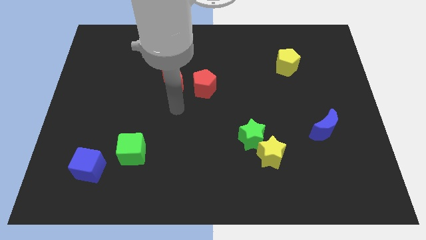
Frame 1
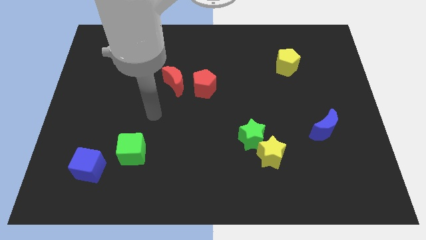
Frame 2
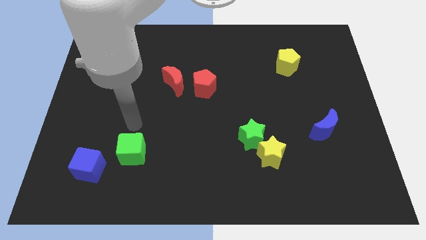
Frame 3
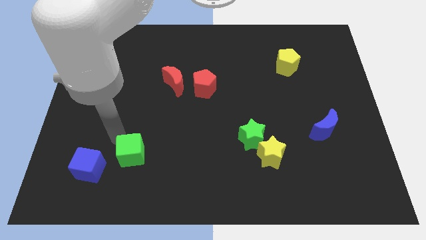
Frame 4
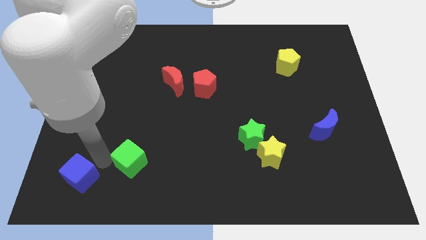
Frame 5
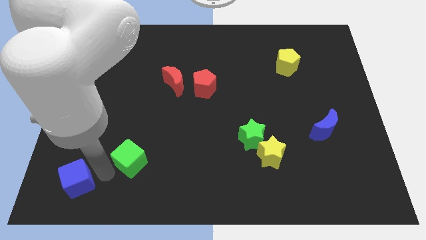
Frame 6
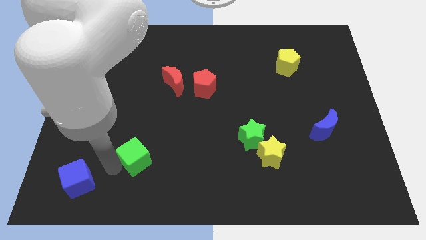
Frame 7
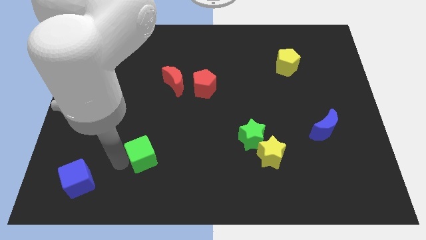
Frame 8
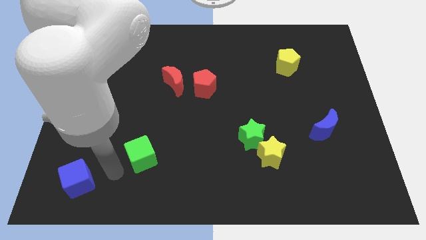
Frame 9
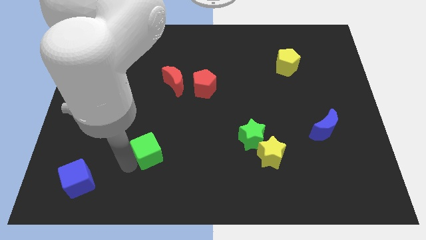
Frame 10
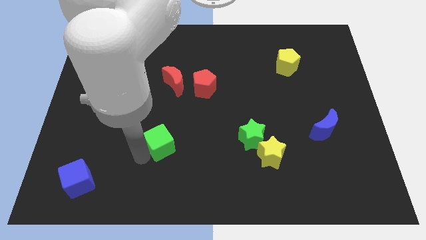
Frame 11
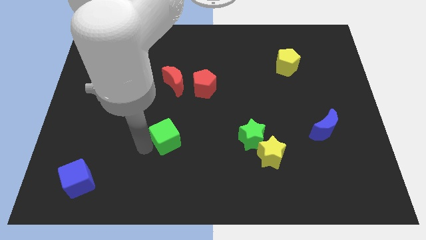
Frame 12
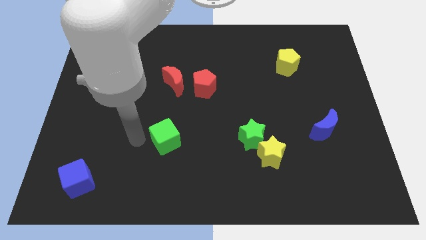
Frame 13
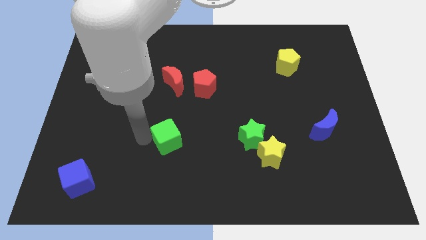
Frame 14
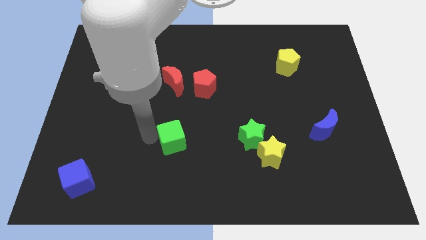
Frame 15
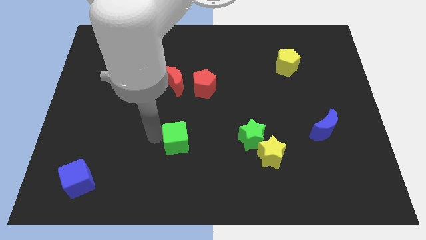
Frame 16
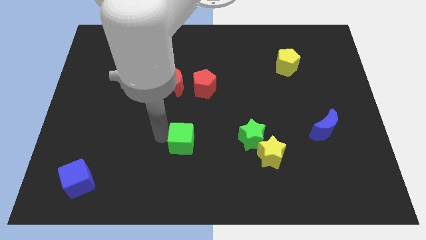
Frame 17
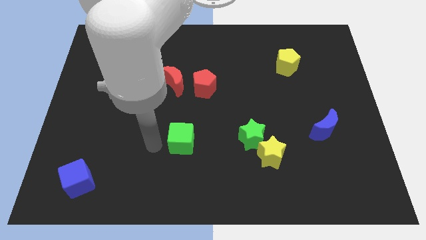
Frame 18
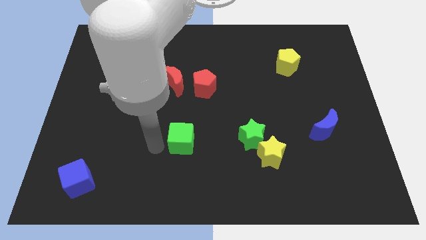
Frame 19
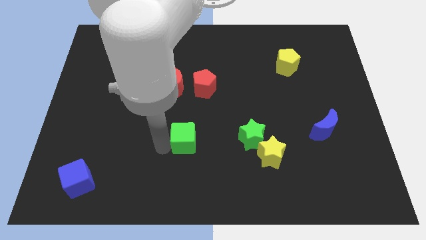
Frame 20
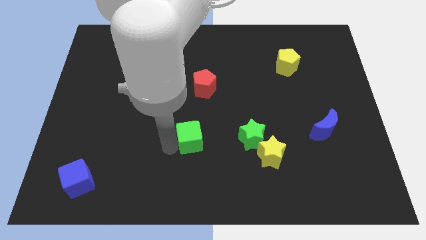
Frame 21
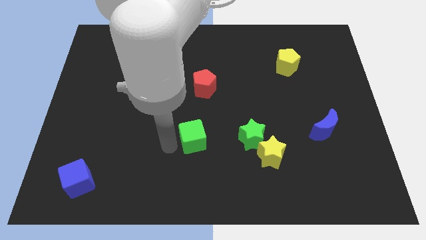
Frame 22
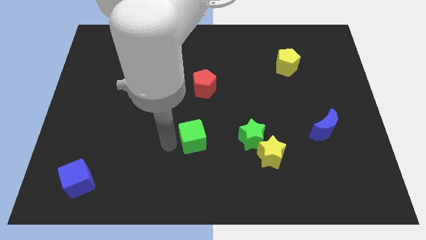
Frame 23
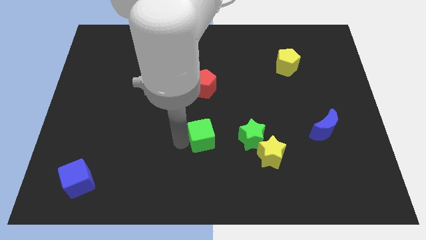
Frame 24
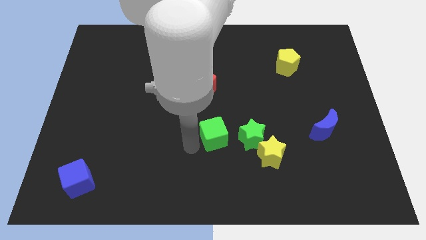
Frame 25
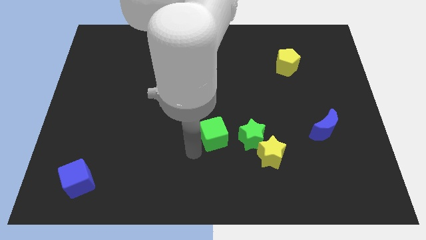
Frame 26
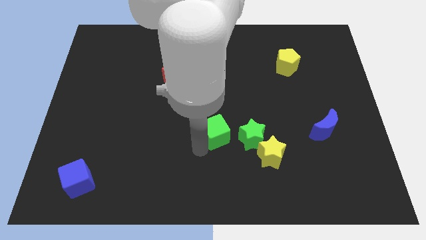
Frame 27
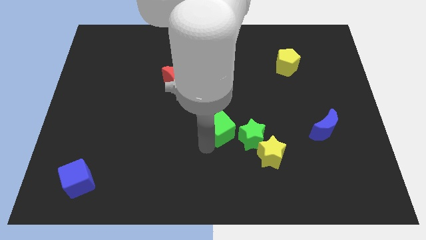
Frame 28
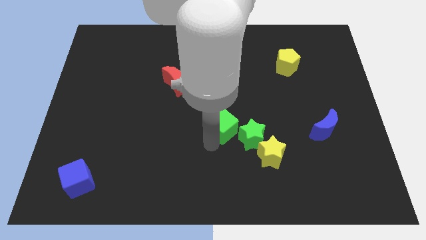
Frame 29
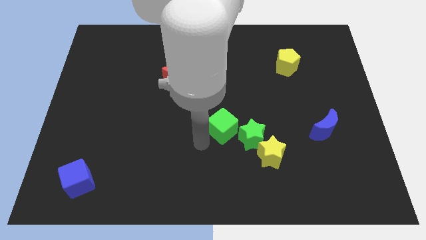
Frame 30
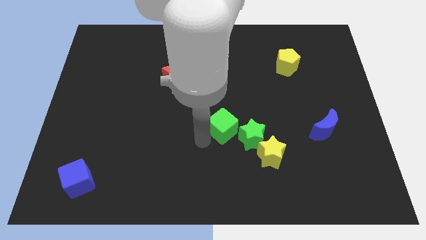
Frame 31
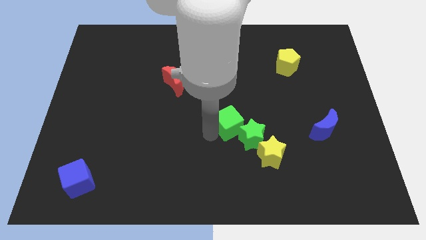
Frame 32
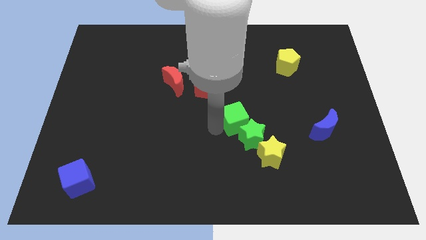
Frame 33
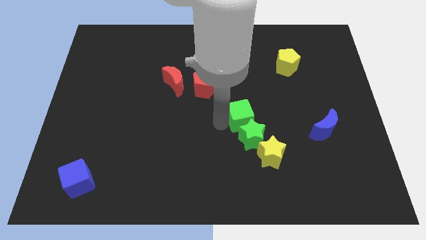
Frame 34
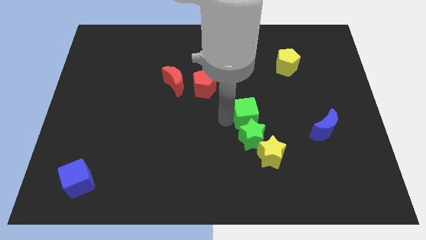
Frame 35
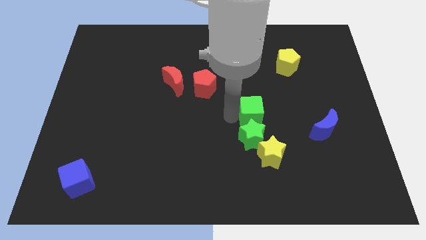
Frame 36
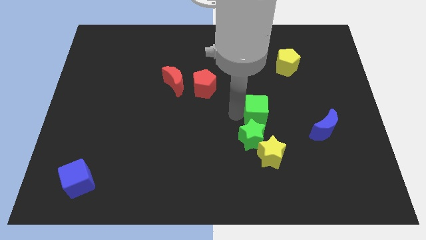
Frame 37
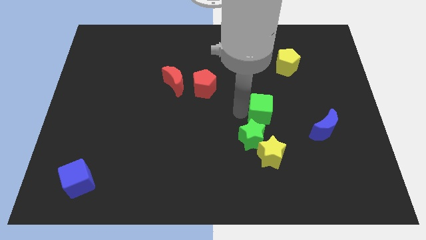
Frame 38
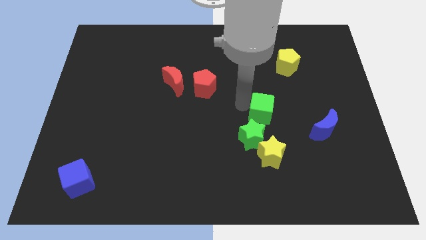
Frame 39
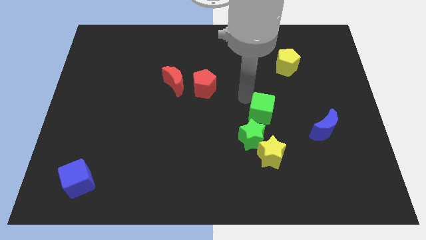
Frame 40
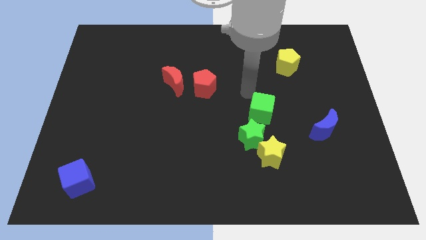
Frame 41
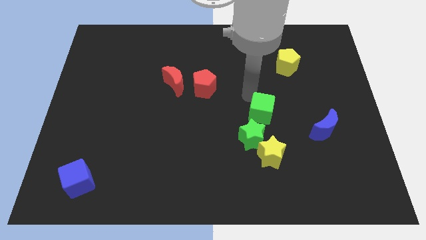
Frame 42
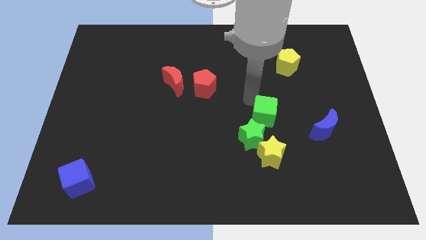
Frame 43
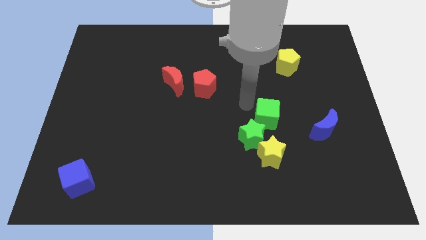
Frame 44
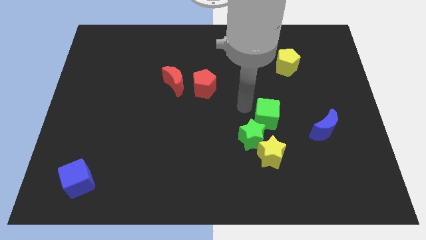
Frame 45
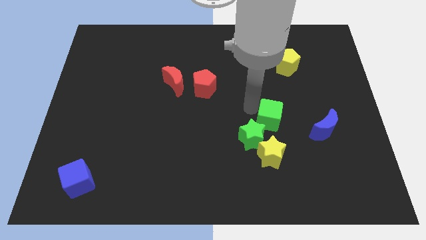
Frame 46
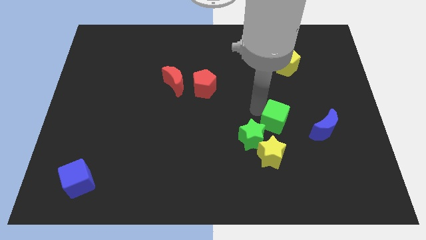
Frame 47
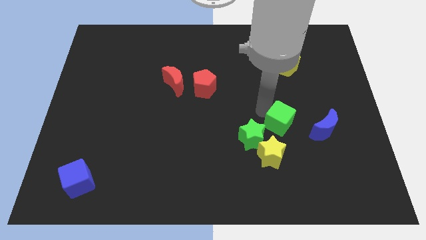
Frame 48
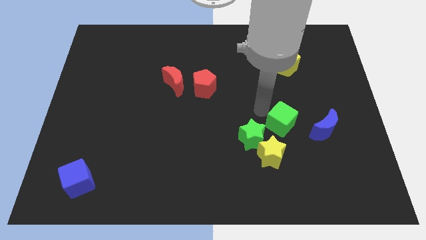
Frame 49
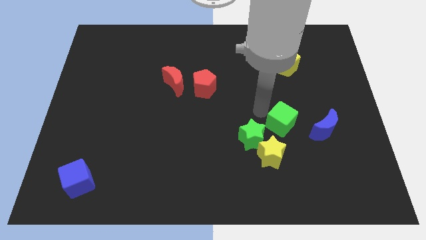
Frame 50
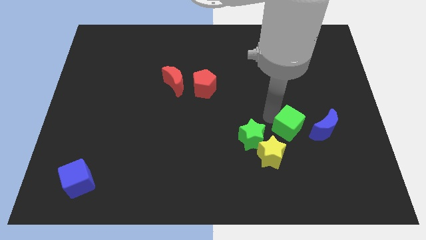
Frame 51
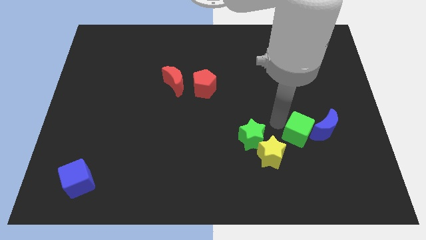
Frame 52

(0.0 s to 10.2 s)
slide the green cube next to the blue moon

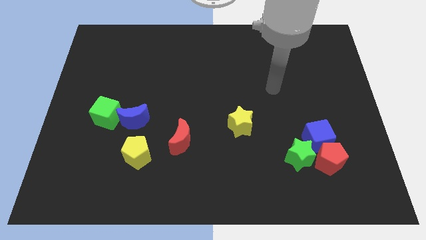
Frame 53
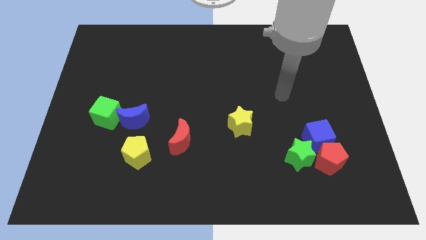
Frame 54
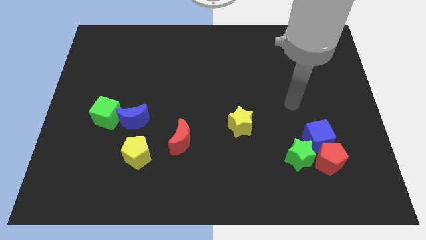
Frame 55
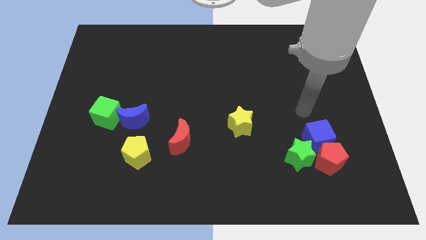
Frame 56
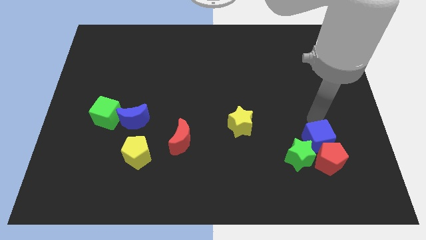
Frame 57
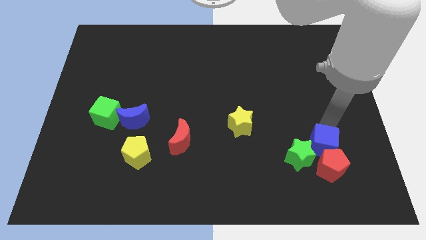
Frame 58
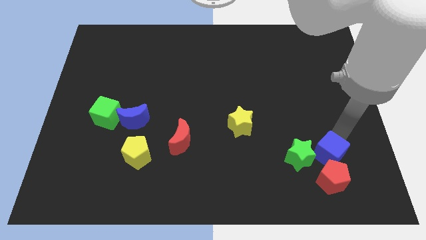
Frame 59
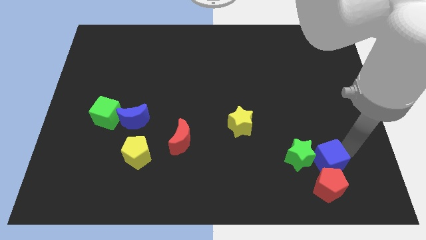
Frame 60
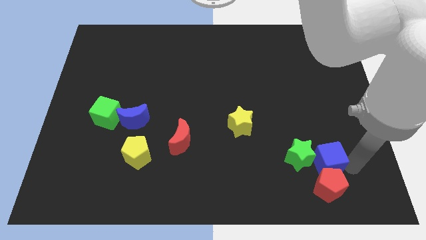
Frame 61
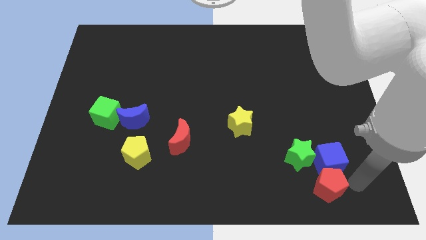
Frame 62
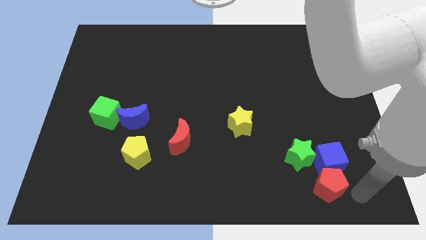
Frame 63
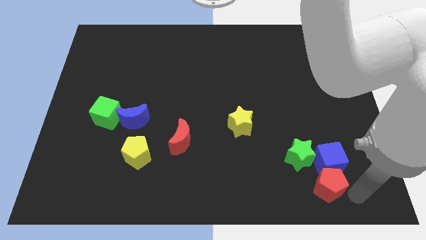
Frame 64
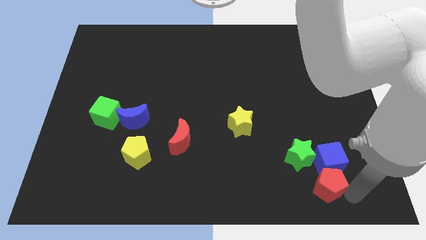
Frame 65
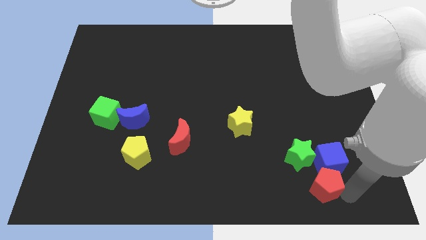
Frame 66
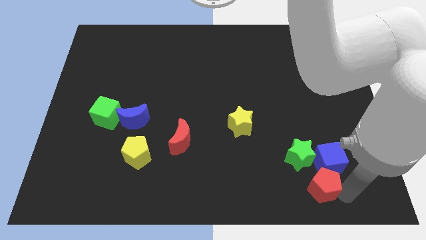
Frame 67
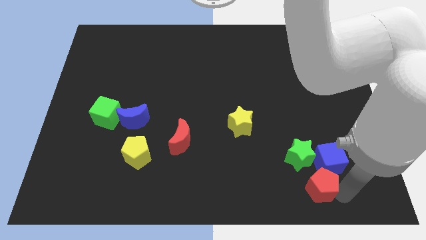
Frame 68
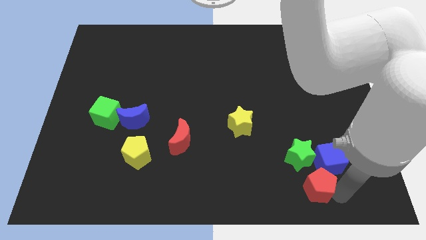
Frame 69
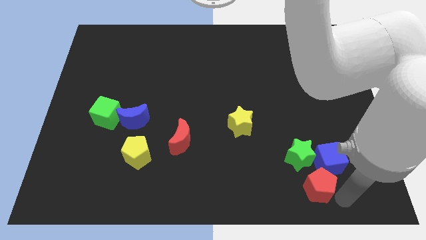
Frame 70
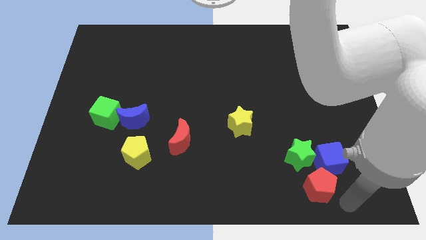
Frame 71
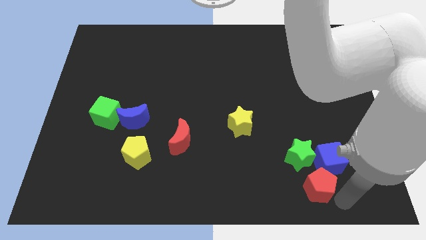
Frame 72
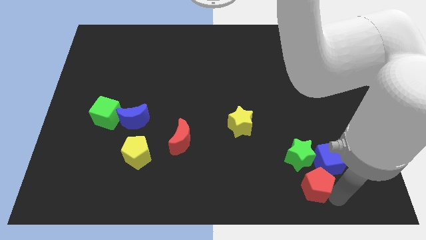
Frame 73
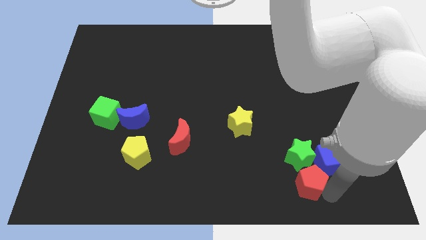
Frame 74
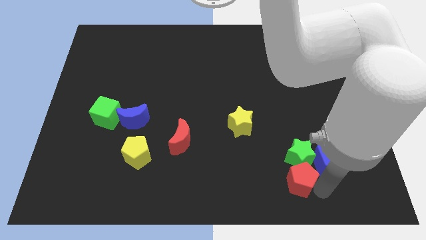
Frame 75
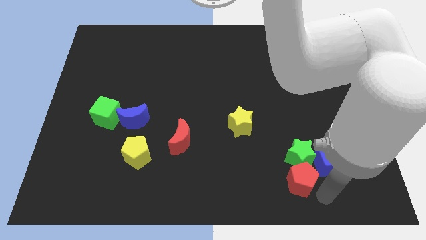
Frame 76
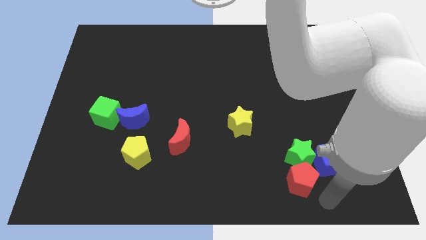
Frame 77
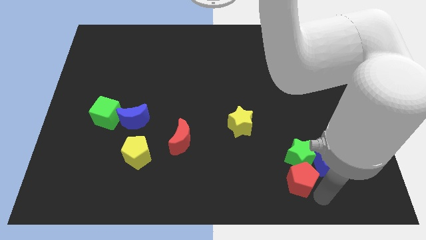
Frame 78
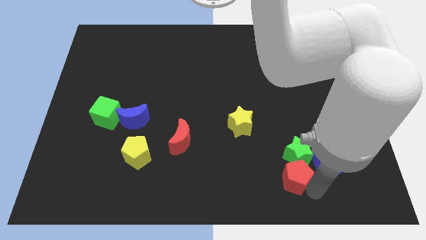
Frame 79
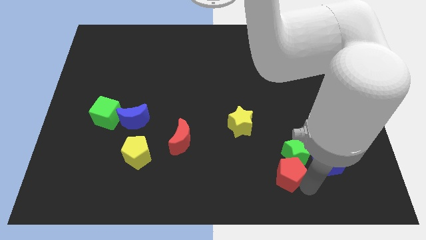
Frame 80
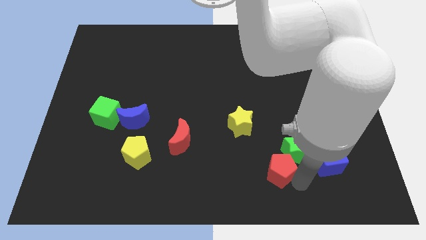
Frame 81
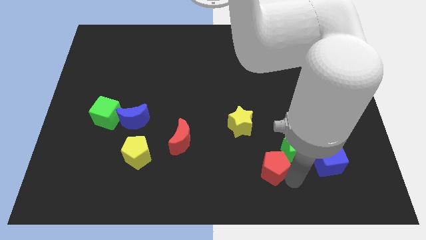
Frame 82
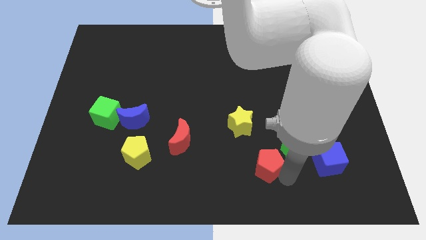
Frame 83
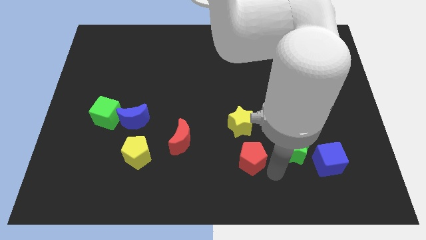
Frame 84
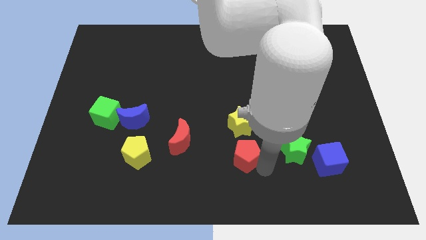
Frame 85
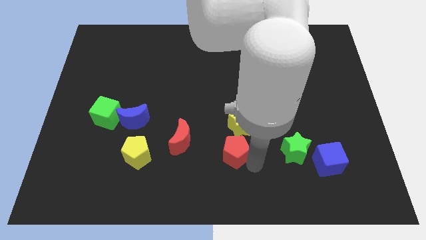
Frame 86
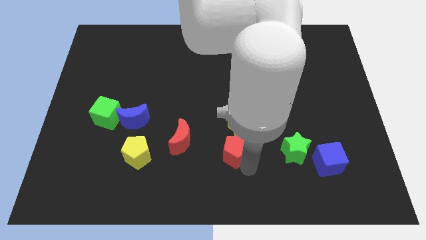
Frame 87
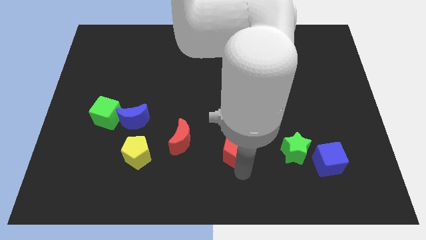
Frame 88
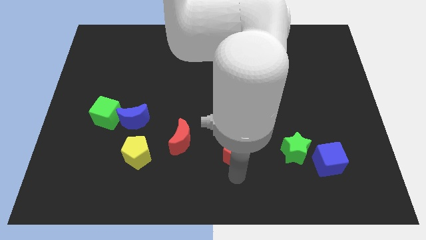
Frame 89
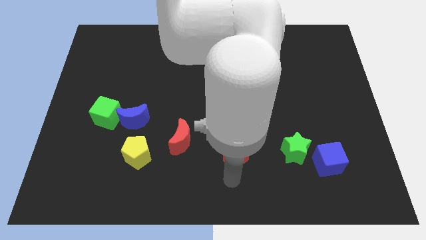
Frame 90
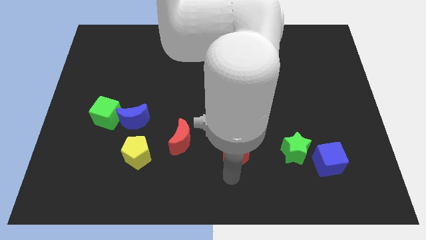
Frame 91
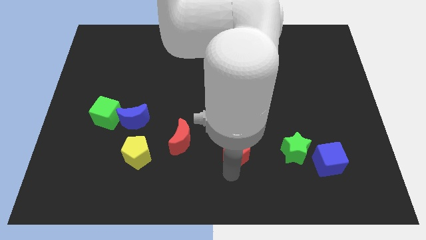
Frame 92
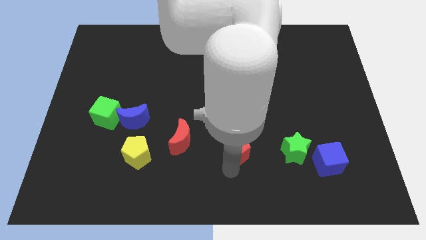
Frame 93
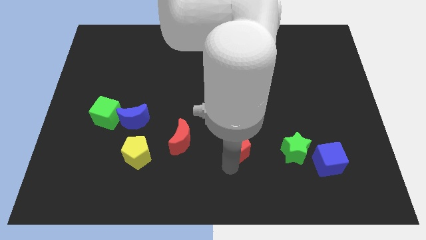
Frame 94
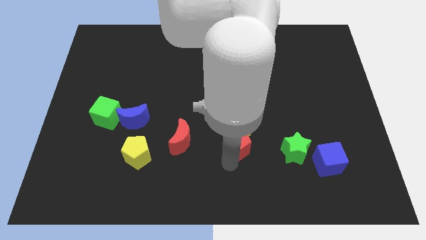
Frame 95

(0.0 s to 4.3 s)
move the red pentagon to the yellow star
